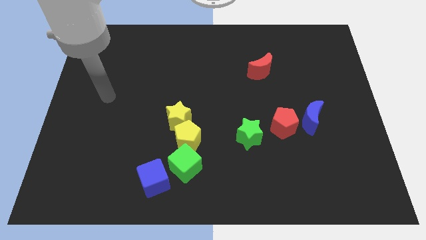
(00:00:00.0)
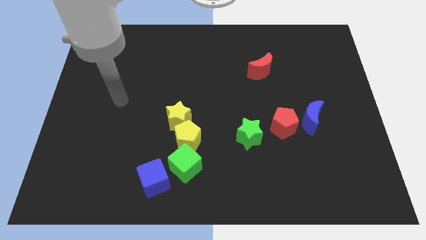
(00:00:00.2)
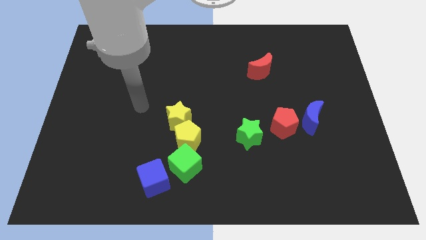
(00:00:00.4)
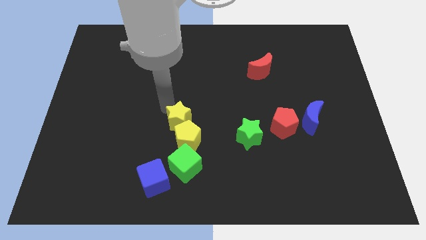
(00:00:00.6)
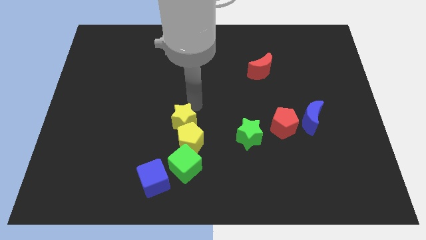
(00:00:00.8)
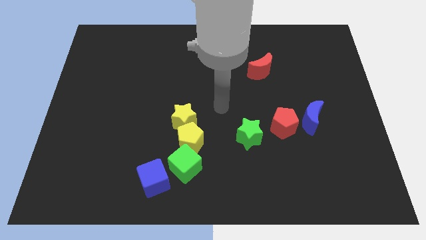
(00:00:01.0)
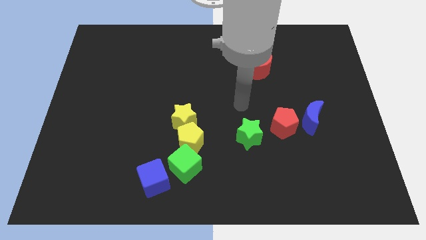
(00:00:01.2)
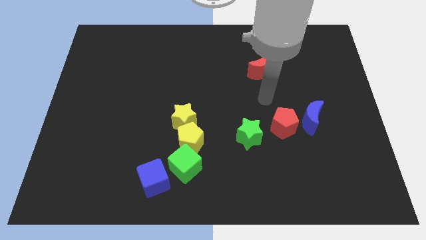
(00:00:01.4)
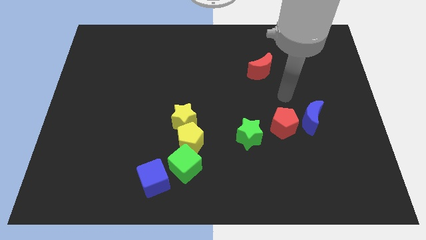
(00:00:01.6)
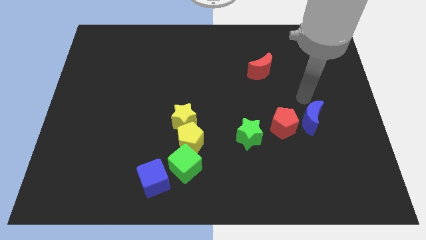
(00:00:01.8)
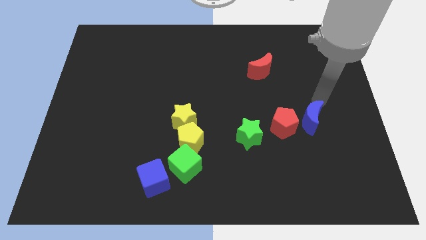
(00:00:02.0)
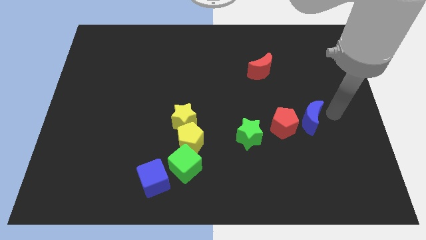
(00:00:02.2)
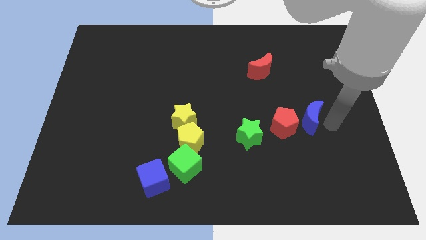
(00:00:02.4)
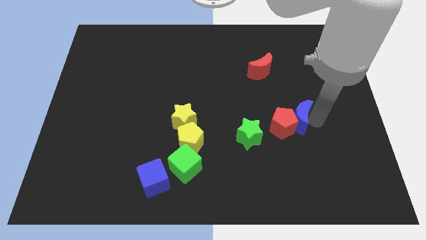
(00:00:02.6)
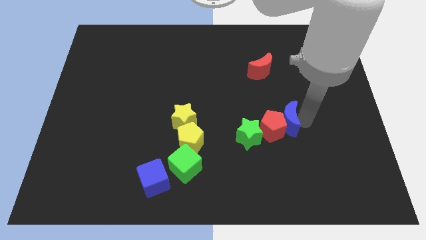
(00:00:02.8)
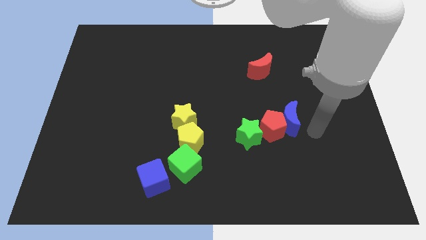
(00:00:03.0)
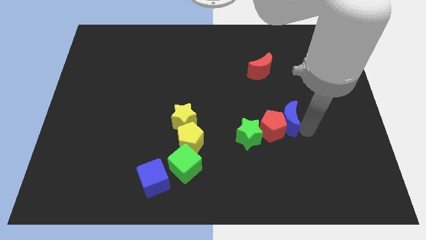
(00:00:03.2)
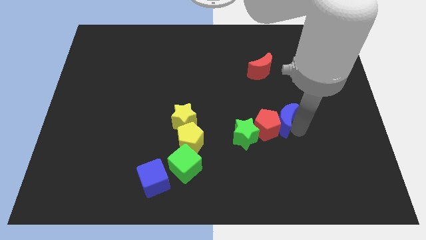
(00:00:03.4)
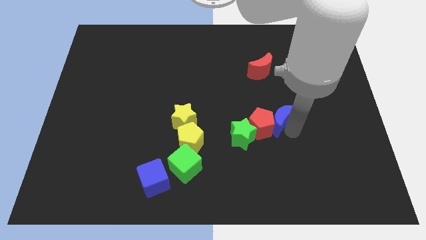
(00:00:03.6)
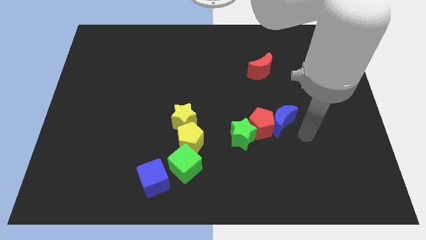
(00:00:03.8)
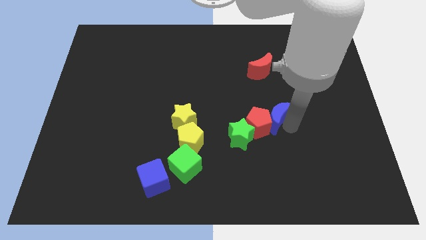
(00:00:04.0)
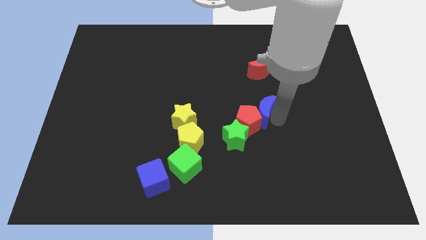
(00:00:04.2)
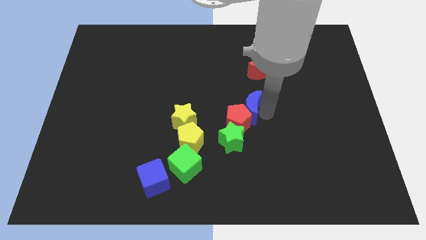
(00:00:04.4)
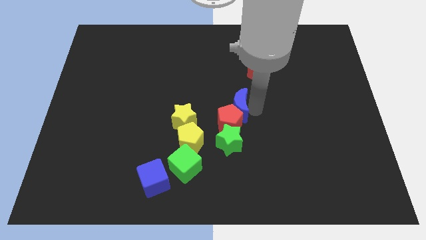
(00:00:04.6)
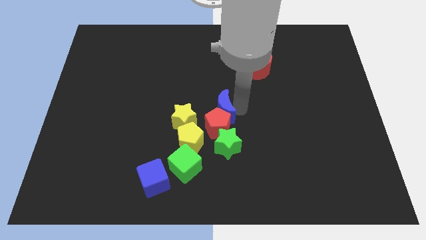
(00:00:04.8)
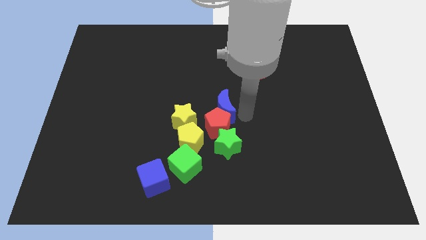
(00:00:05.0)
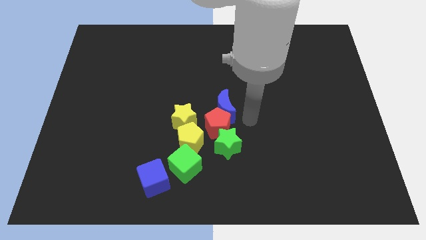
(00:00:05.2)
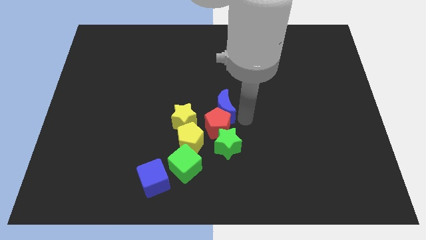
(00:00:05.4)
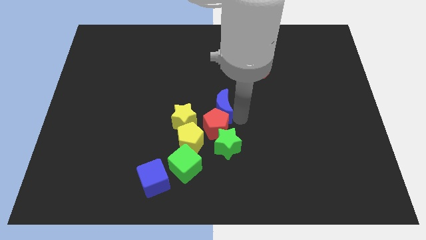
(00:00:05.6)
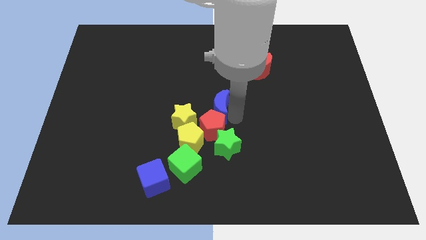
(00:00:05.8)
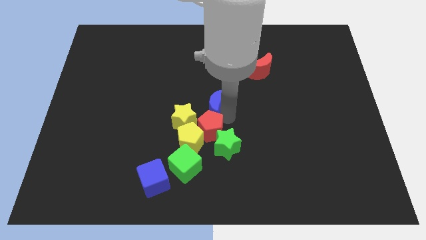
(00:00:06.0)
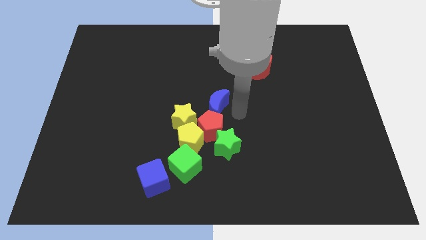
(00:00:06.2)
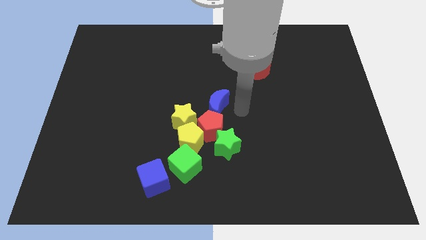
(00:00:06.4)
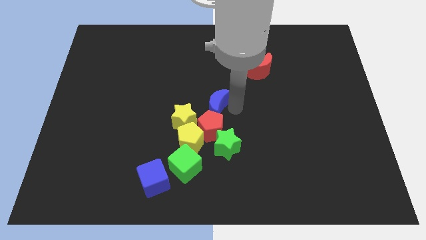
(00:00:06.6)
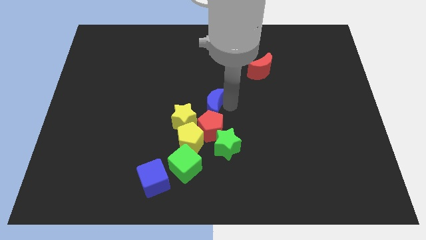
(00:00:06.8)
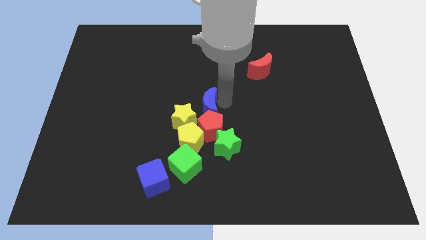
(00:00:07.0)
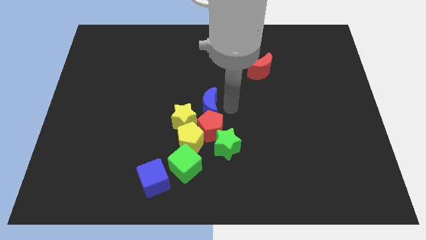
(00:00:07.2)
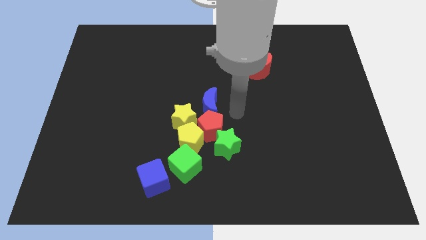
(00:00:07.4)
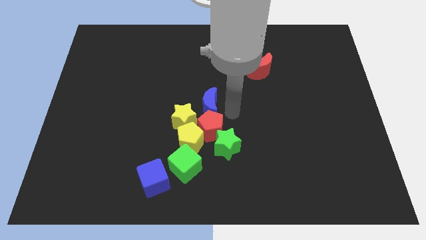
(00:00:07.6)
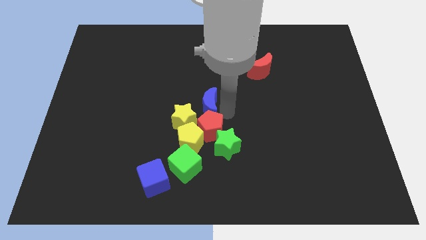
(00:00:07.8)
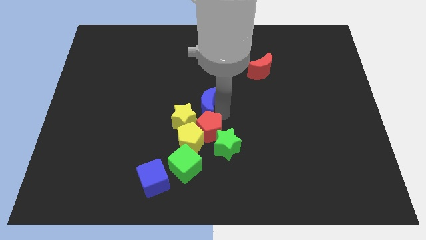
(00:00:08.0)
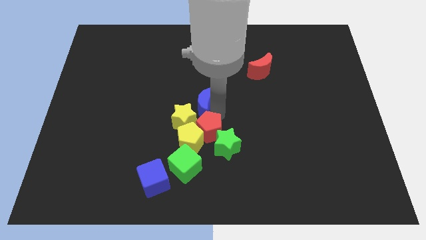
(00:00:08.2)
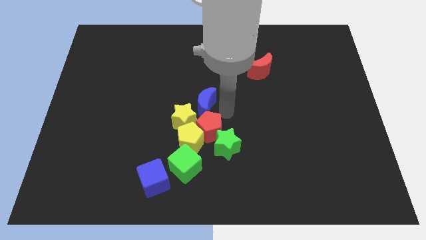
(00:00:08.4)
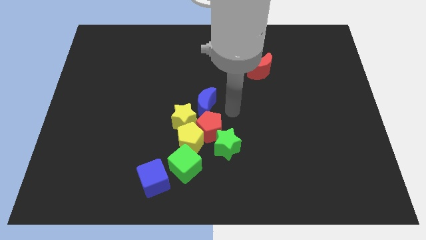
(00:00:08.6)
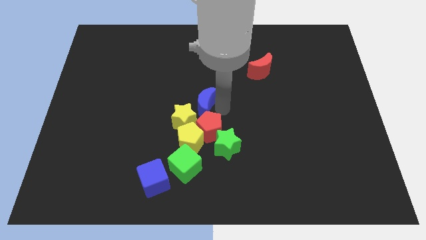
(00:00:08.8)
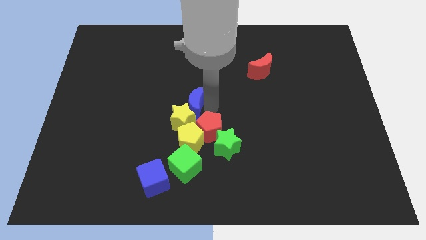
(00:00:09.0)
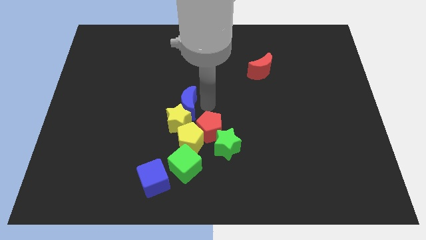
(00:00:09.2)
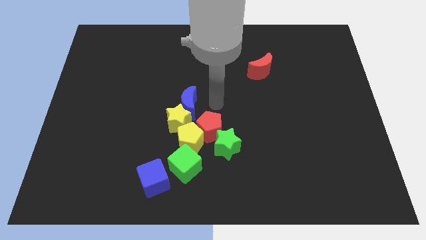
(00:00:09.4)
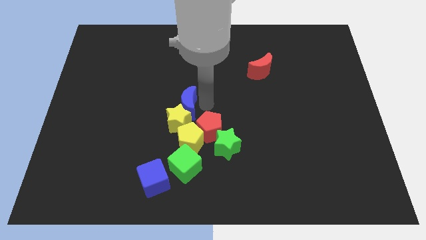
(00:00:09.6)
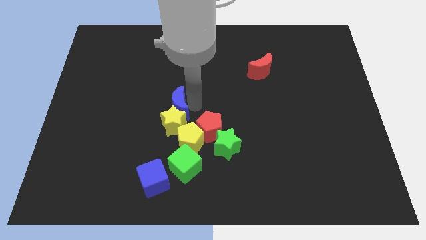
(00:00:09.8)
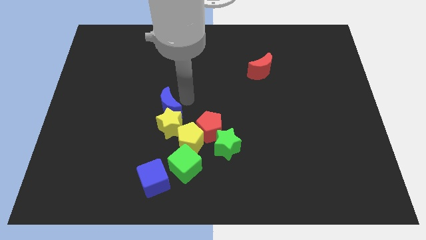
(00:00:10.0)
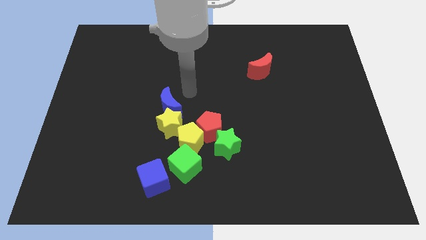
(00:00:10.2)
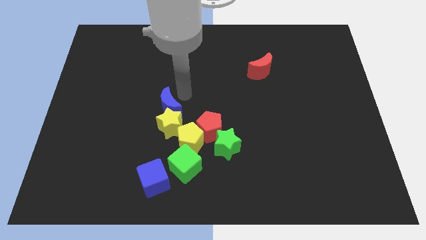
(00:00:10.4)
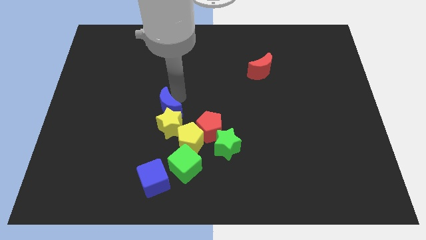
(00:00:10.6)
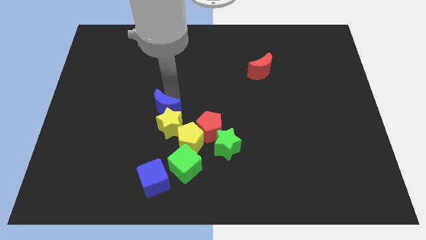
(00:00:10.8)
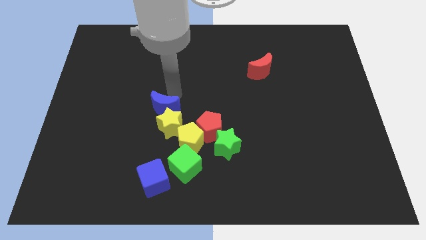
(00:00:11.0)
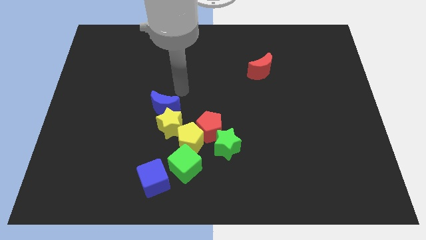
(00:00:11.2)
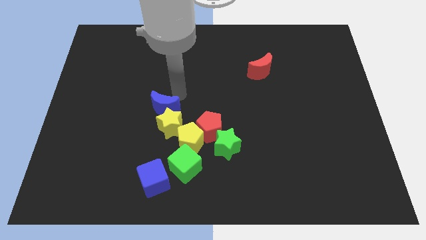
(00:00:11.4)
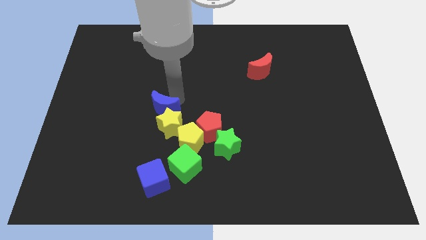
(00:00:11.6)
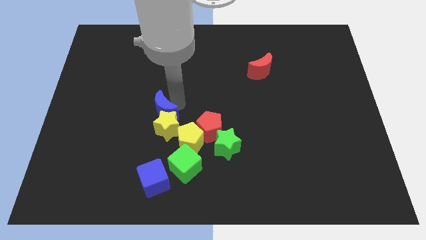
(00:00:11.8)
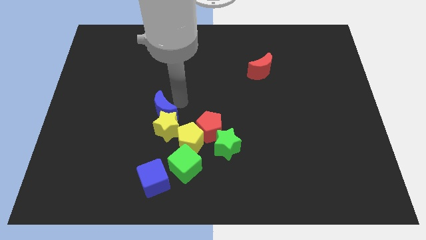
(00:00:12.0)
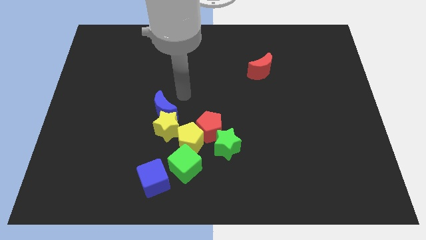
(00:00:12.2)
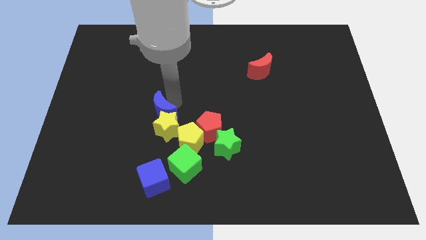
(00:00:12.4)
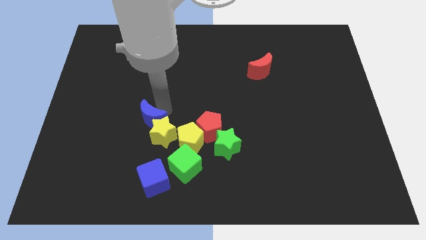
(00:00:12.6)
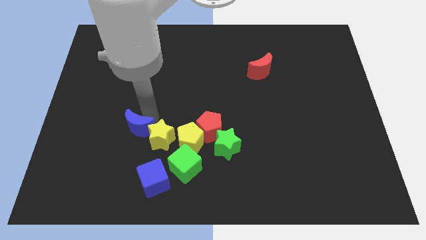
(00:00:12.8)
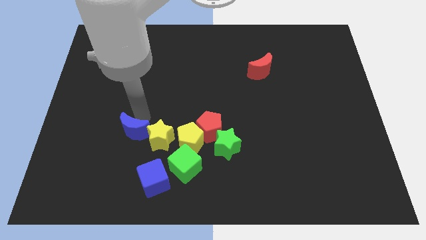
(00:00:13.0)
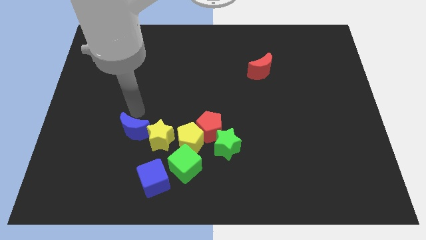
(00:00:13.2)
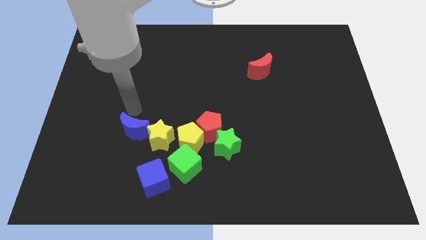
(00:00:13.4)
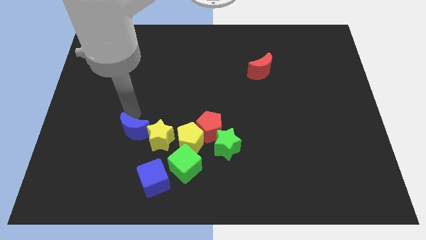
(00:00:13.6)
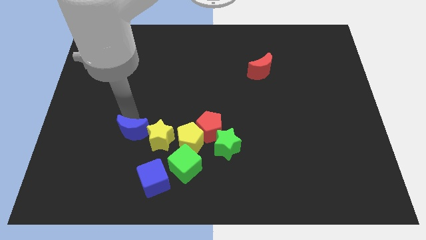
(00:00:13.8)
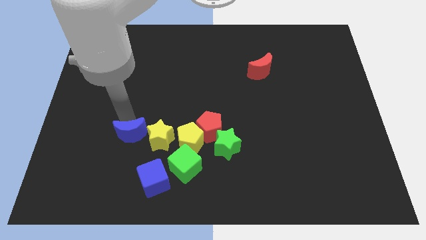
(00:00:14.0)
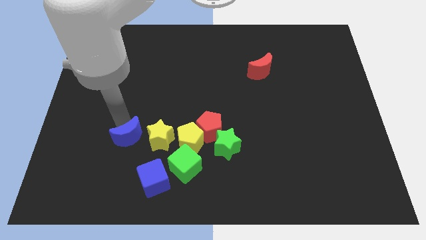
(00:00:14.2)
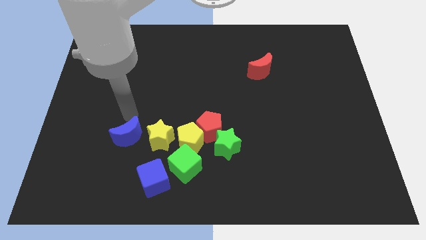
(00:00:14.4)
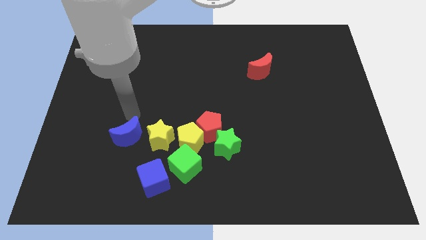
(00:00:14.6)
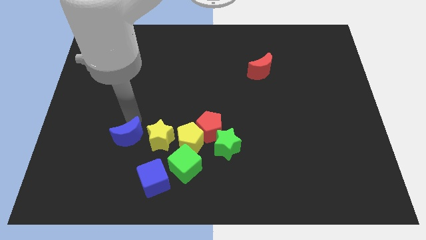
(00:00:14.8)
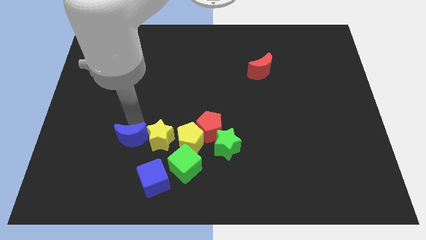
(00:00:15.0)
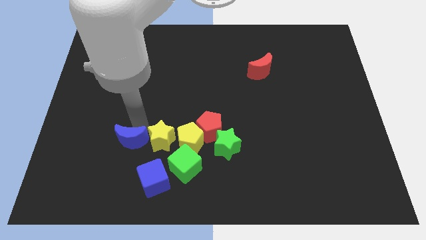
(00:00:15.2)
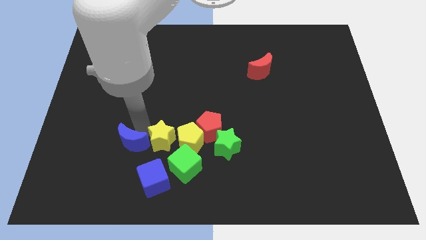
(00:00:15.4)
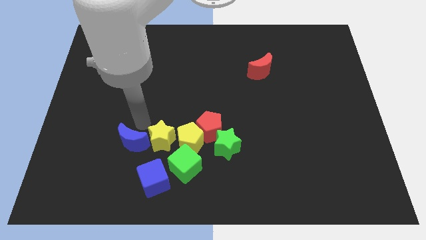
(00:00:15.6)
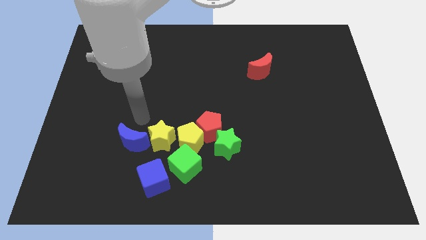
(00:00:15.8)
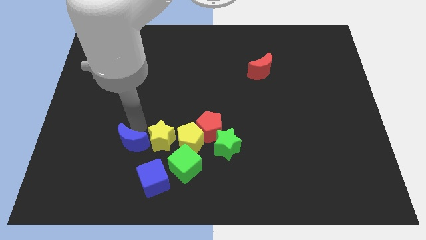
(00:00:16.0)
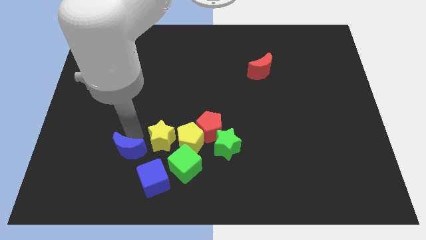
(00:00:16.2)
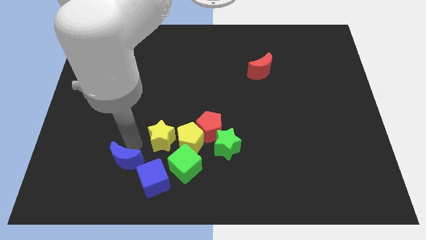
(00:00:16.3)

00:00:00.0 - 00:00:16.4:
move the blue moon left of the blue cube
